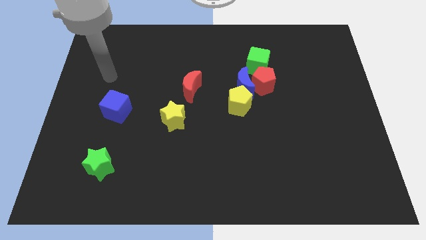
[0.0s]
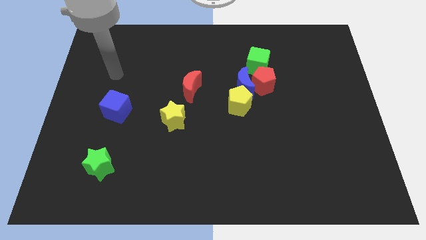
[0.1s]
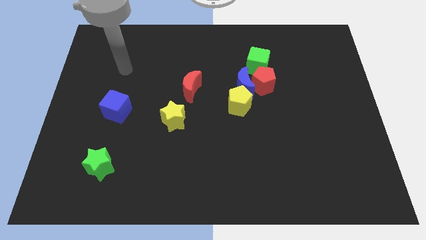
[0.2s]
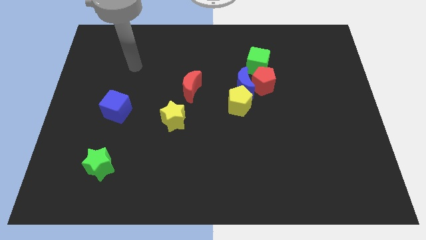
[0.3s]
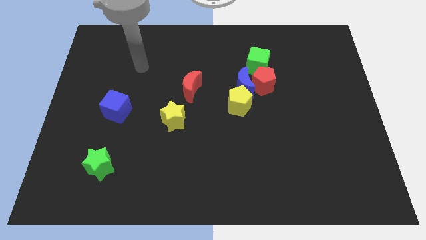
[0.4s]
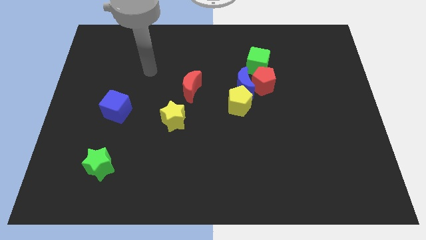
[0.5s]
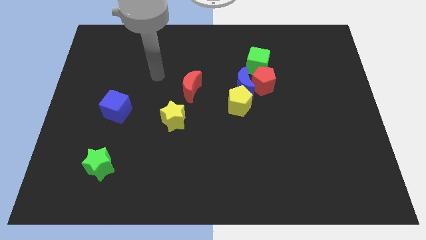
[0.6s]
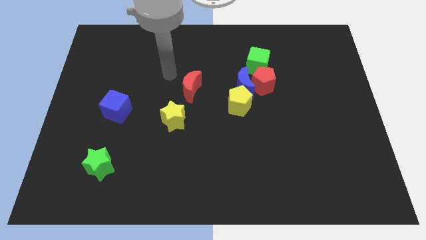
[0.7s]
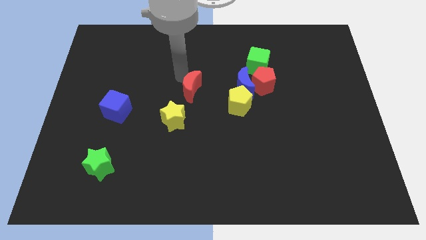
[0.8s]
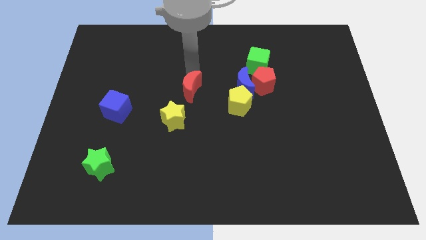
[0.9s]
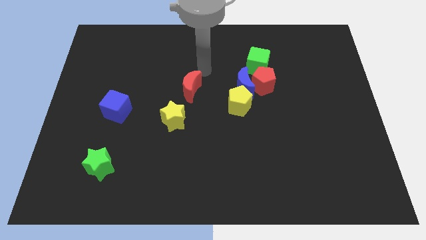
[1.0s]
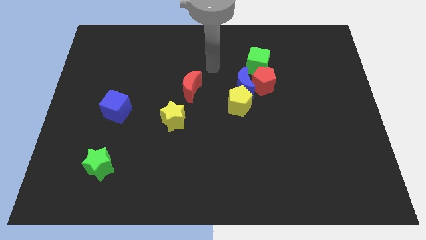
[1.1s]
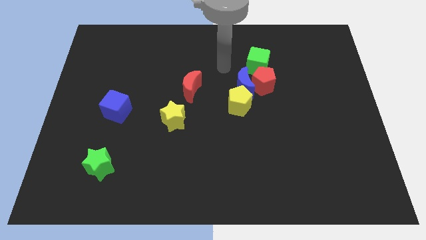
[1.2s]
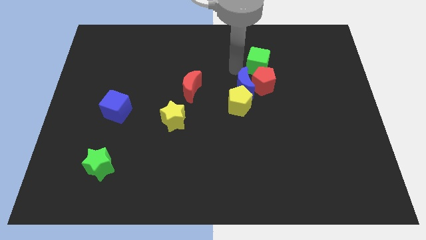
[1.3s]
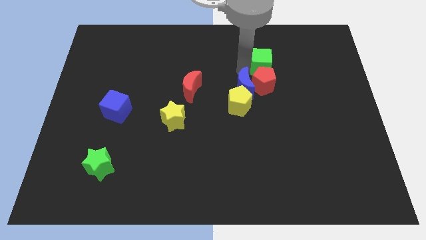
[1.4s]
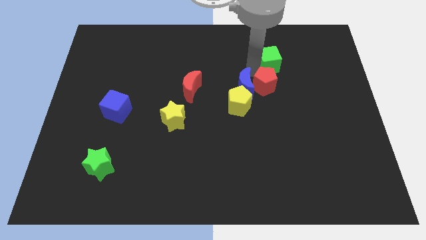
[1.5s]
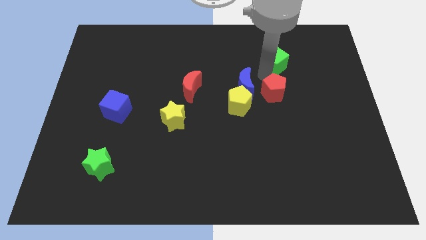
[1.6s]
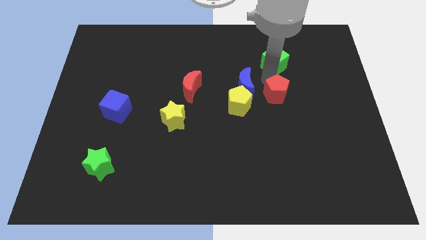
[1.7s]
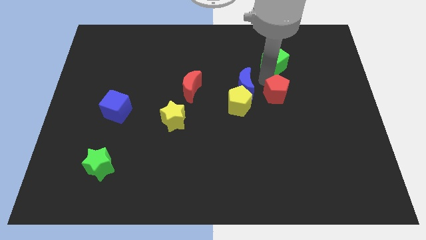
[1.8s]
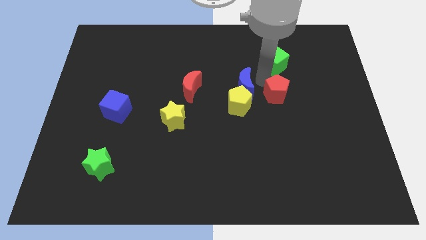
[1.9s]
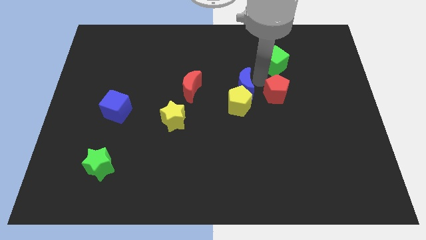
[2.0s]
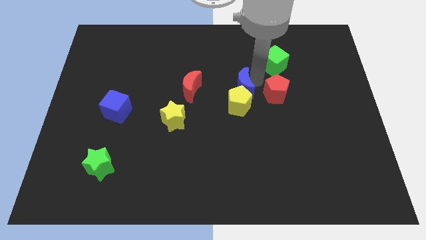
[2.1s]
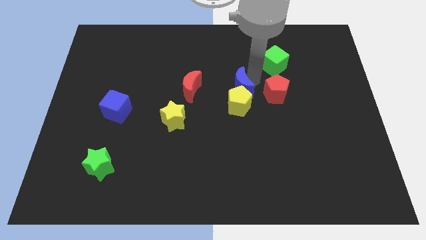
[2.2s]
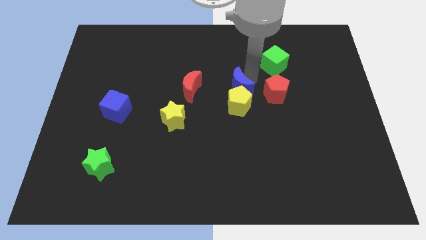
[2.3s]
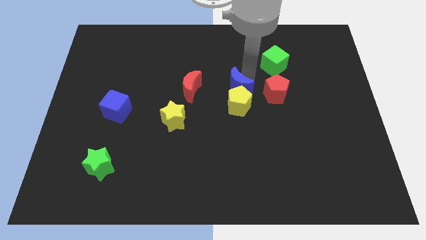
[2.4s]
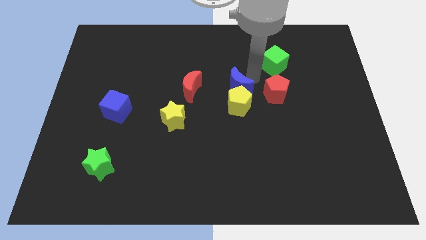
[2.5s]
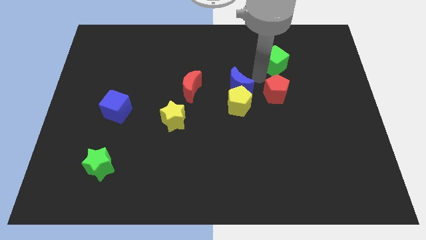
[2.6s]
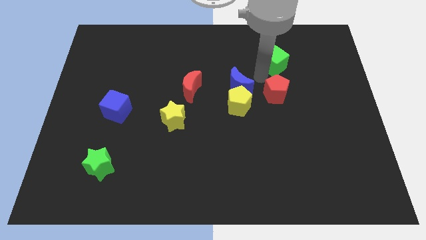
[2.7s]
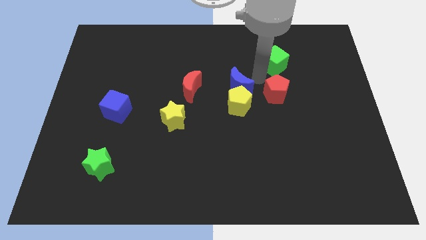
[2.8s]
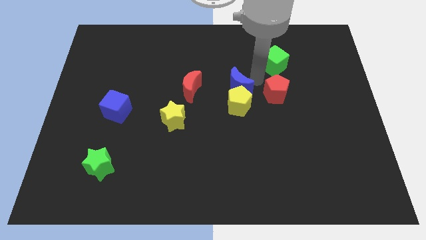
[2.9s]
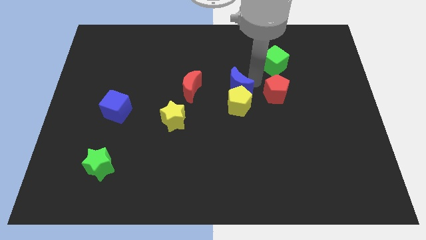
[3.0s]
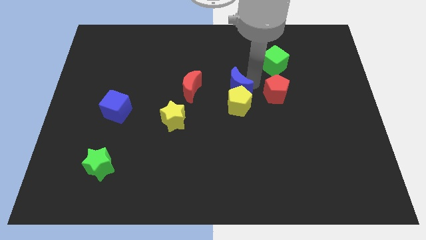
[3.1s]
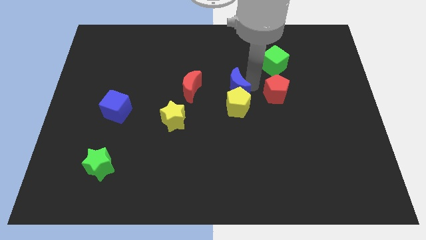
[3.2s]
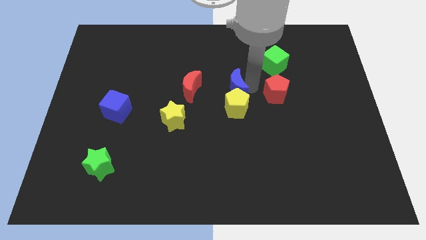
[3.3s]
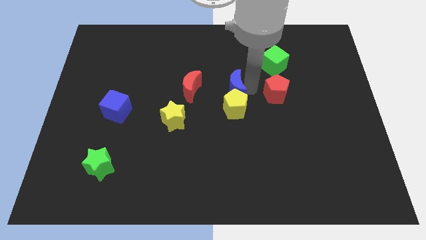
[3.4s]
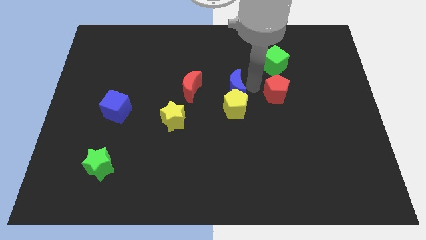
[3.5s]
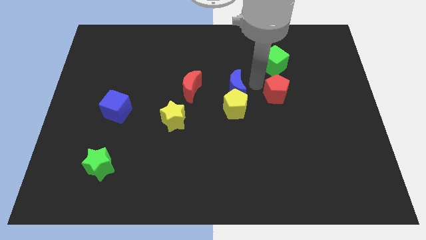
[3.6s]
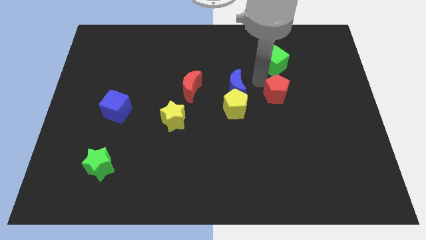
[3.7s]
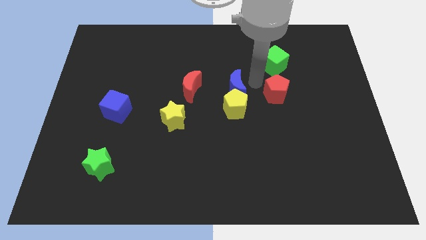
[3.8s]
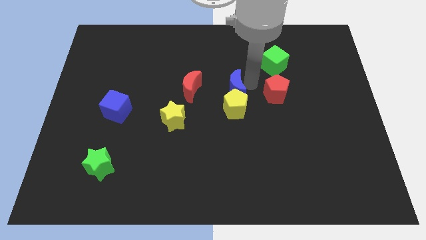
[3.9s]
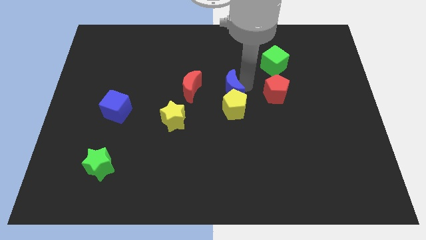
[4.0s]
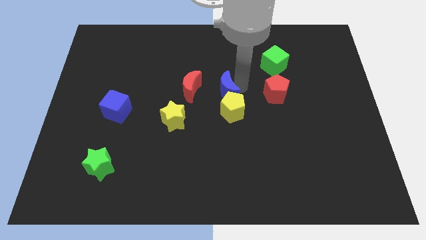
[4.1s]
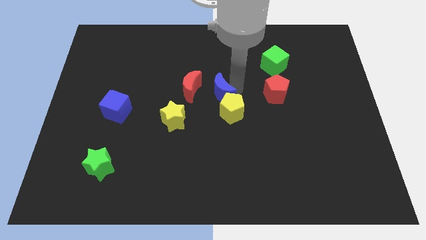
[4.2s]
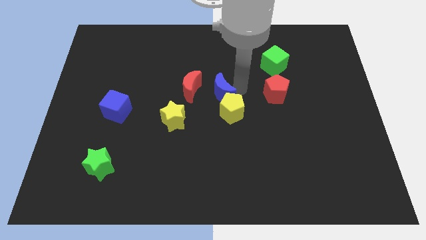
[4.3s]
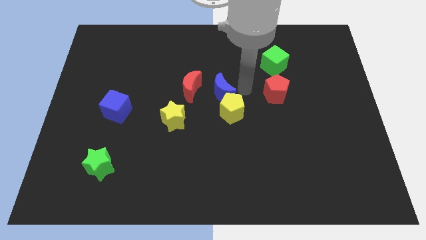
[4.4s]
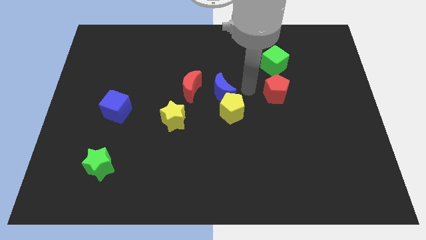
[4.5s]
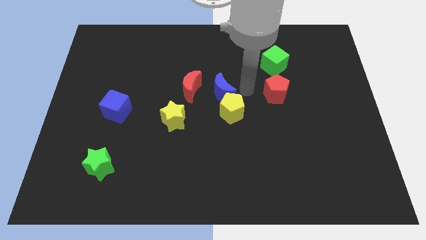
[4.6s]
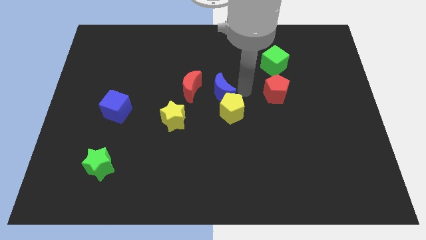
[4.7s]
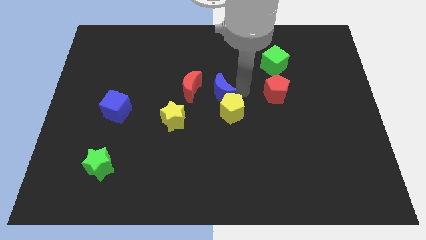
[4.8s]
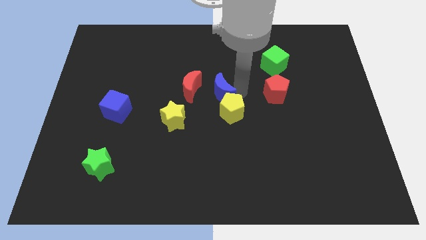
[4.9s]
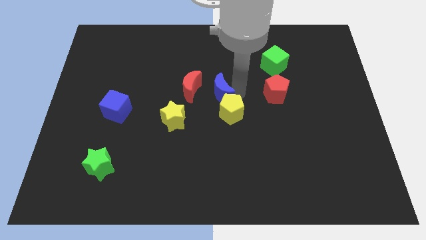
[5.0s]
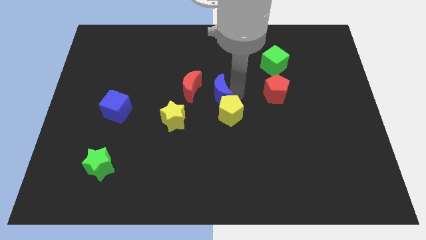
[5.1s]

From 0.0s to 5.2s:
move the blue moon away from the group of blocks

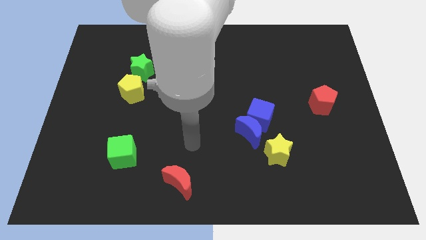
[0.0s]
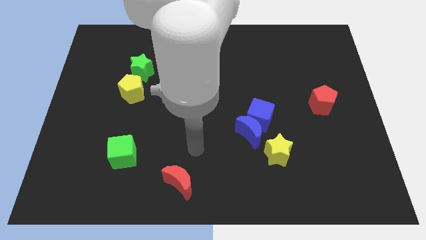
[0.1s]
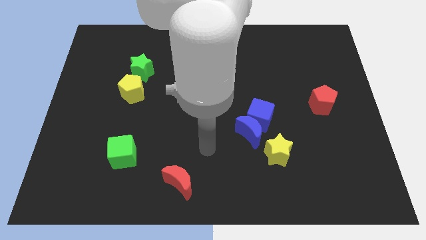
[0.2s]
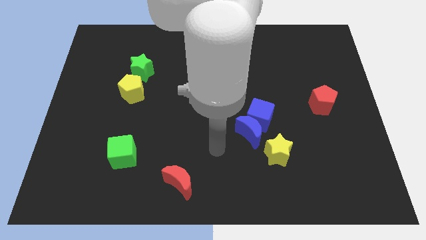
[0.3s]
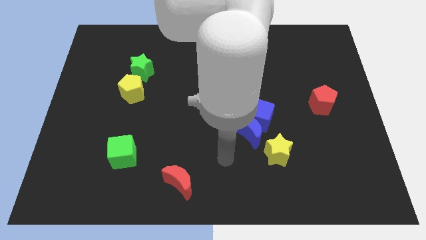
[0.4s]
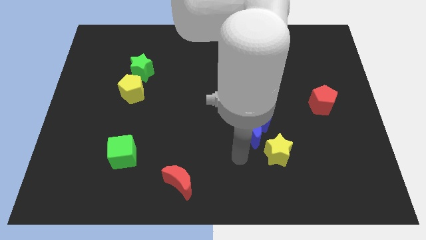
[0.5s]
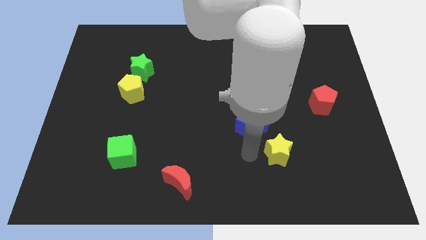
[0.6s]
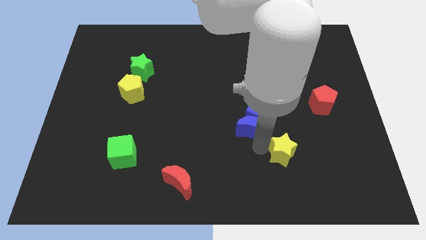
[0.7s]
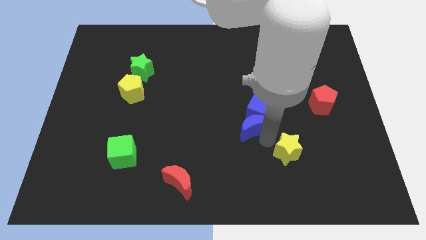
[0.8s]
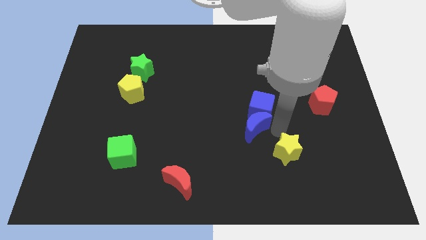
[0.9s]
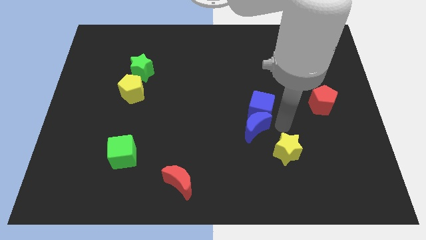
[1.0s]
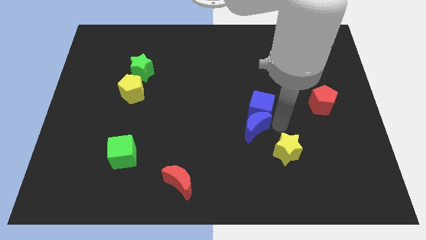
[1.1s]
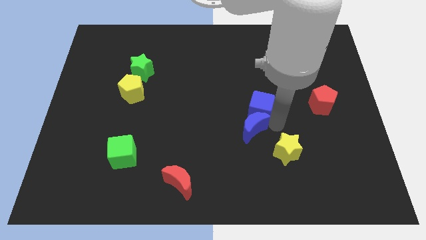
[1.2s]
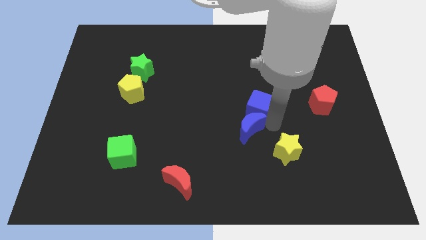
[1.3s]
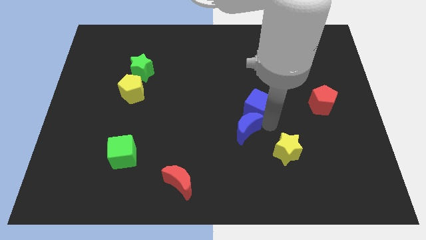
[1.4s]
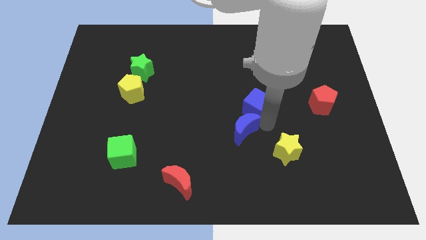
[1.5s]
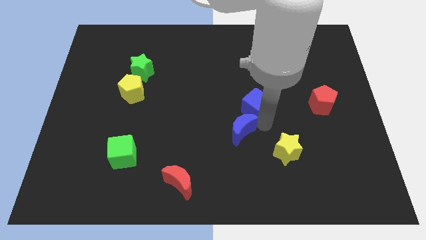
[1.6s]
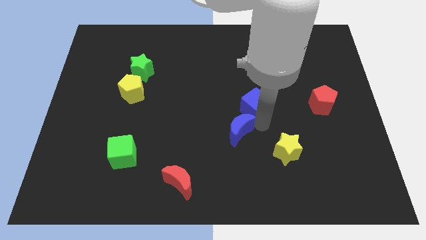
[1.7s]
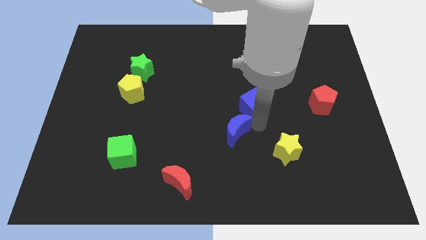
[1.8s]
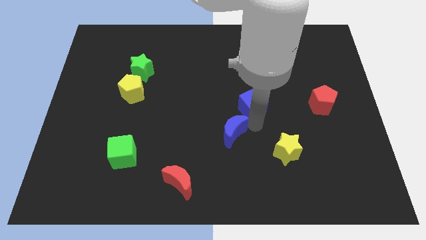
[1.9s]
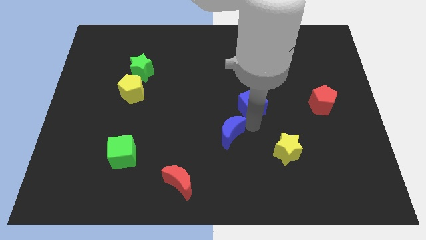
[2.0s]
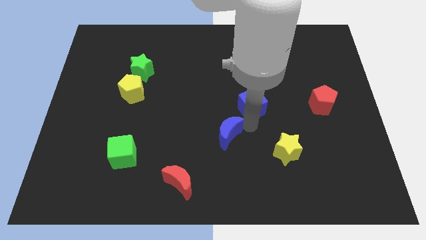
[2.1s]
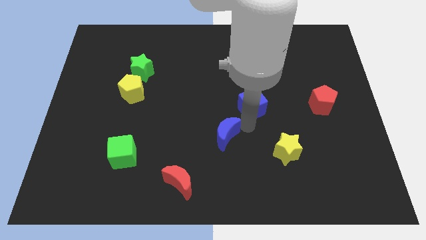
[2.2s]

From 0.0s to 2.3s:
pull the blue moon apart from the blue cube and yellow star

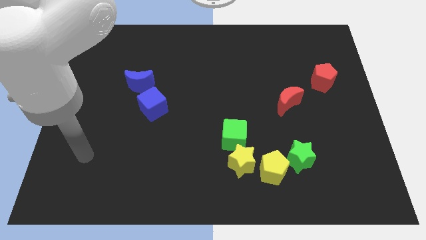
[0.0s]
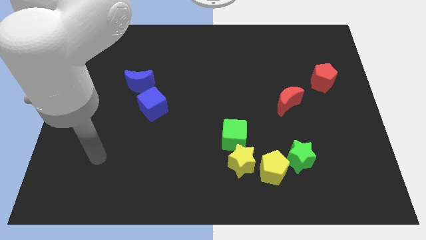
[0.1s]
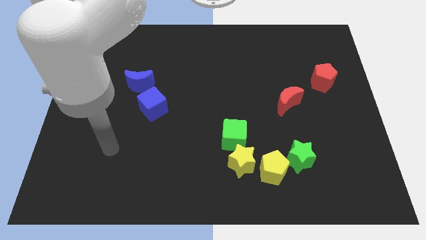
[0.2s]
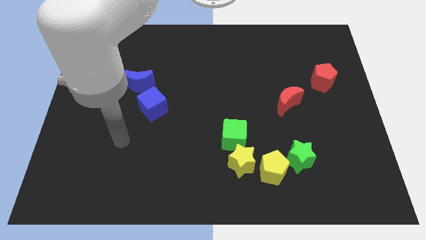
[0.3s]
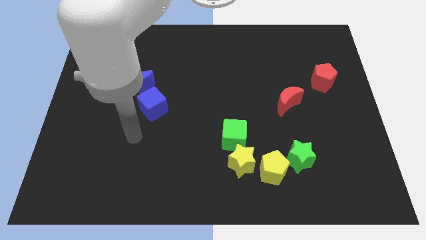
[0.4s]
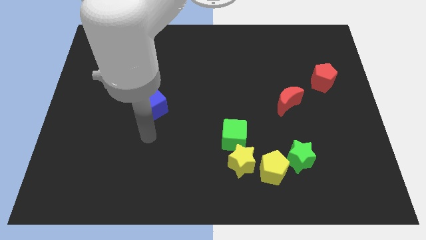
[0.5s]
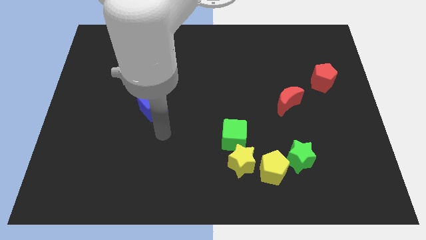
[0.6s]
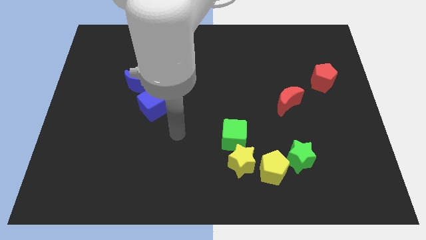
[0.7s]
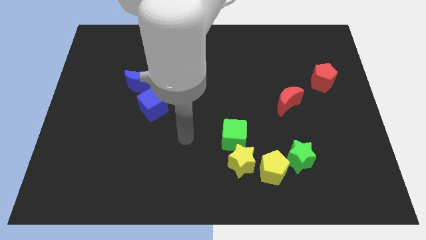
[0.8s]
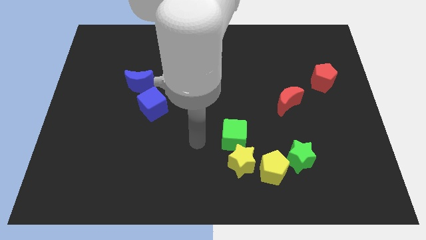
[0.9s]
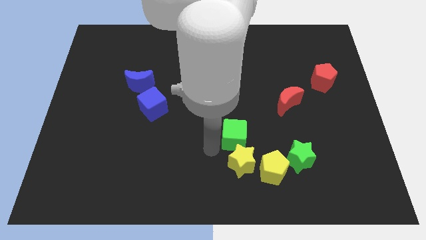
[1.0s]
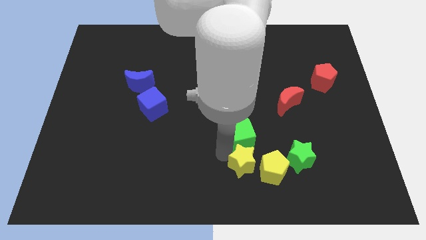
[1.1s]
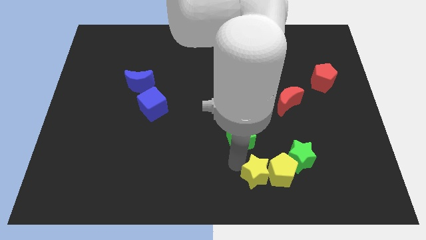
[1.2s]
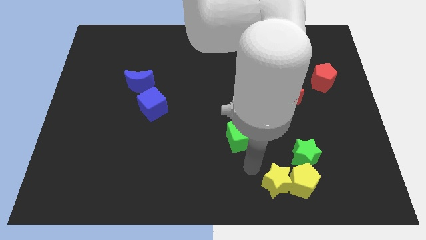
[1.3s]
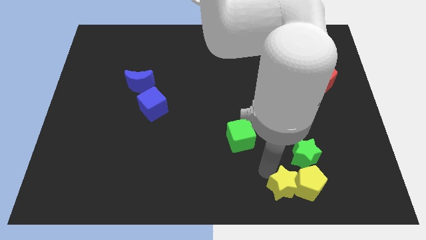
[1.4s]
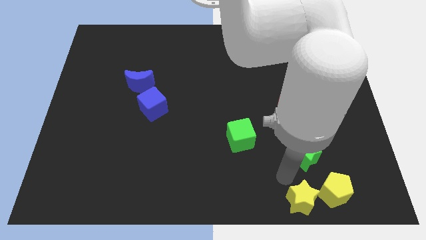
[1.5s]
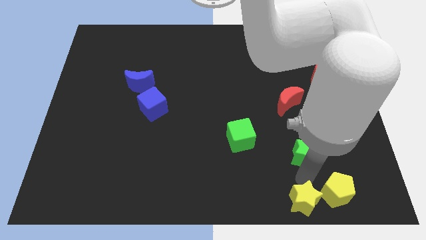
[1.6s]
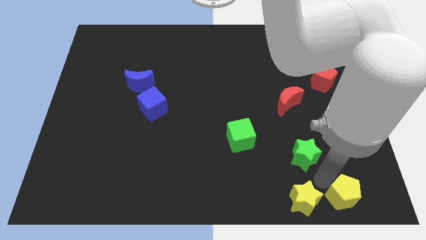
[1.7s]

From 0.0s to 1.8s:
move the green star away from the yellow pentagon
